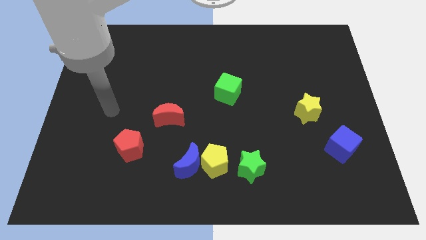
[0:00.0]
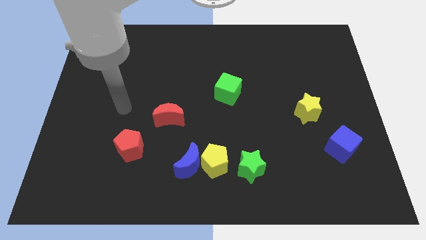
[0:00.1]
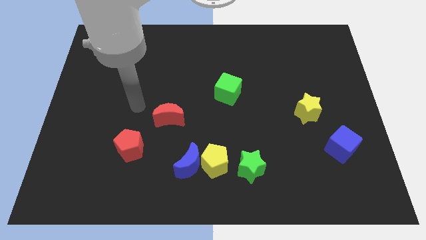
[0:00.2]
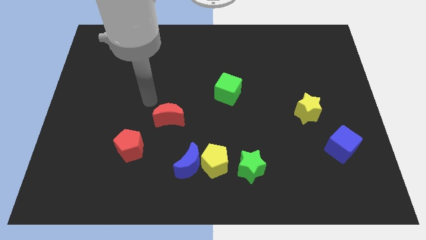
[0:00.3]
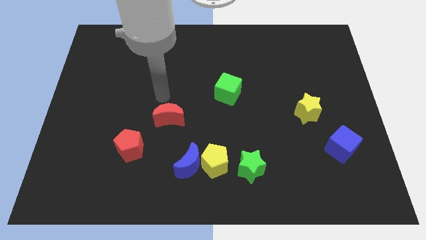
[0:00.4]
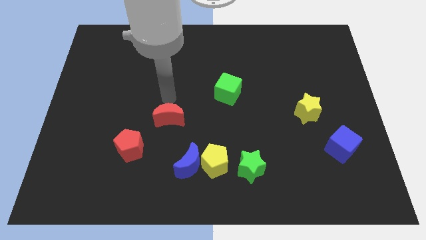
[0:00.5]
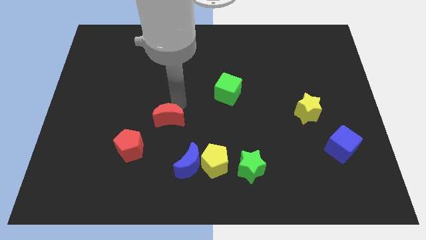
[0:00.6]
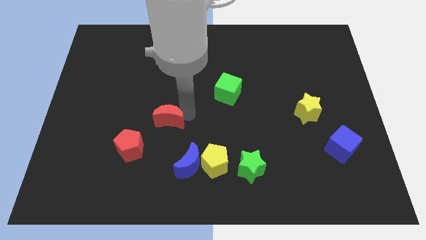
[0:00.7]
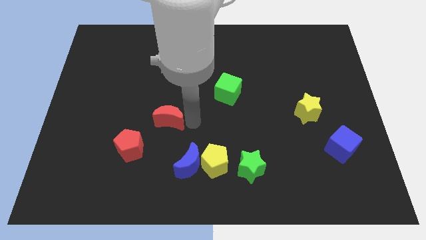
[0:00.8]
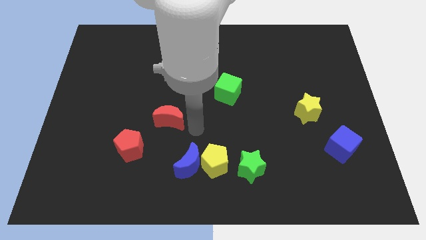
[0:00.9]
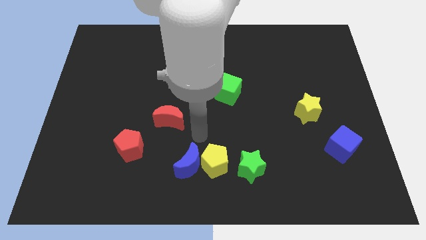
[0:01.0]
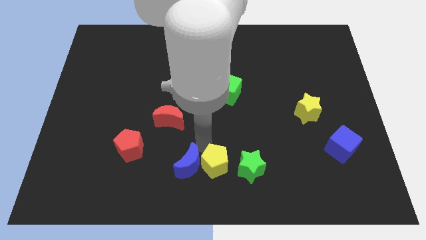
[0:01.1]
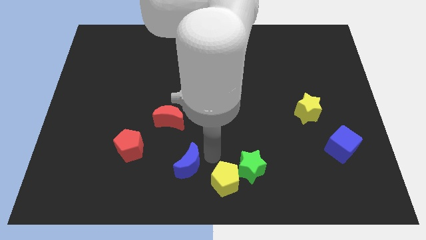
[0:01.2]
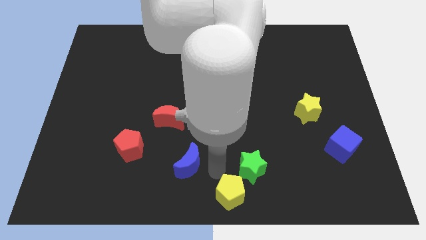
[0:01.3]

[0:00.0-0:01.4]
move the blue moon away from the yellow pentagon

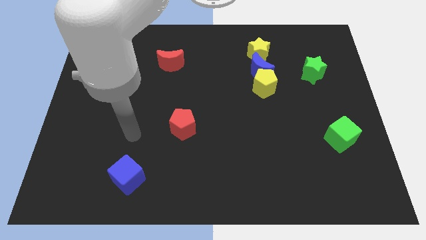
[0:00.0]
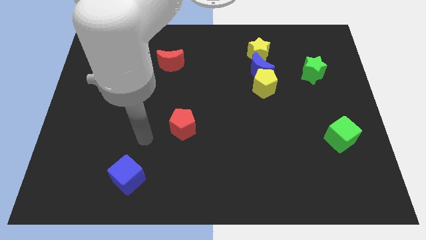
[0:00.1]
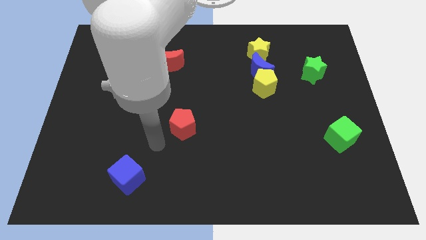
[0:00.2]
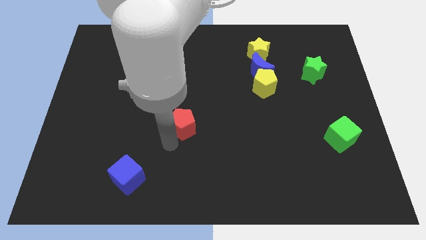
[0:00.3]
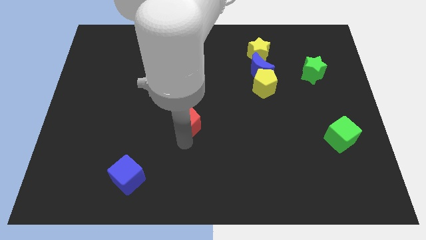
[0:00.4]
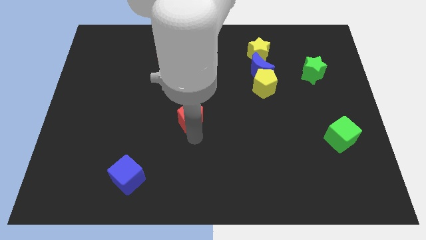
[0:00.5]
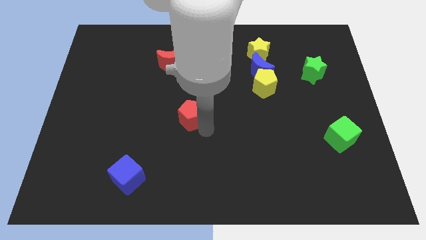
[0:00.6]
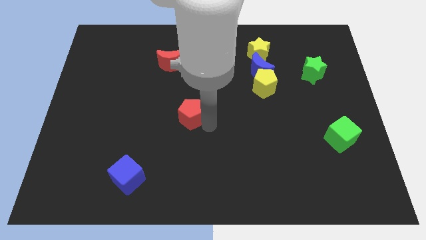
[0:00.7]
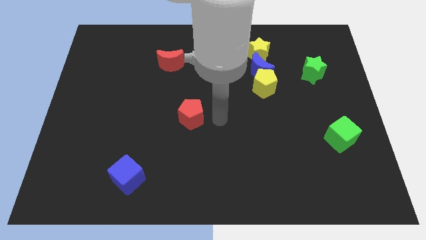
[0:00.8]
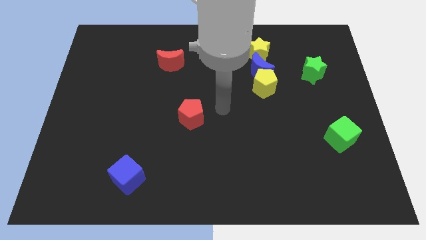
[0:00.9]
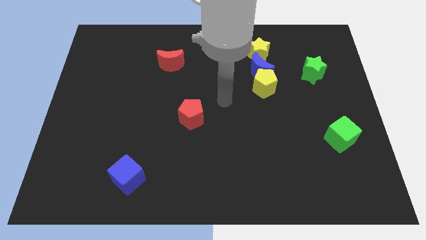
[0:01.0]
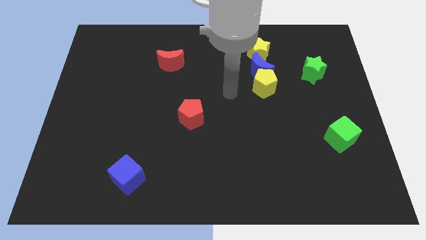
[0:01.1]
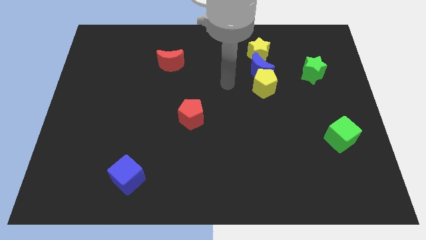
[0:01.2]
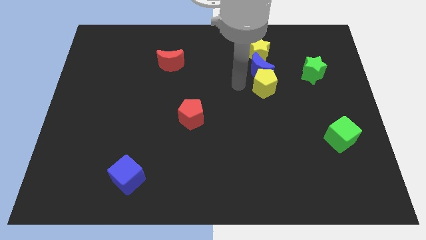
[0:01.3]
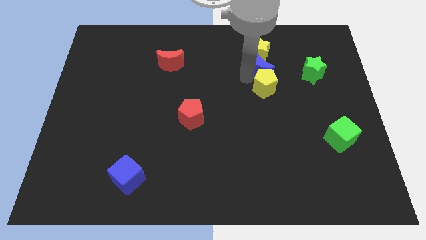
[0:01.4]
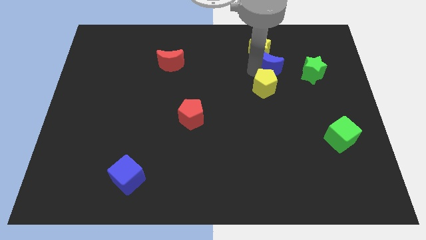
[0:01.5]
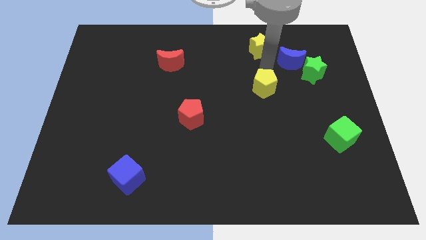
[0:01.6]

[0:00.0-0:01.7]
pull the yellow pentagon apart from the blue moon

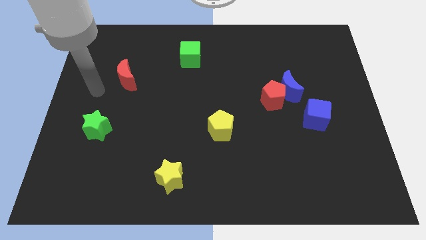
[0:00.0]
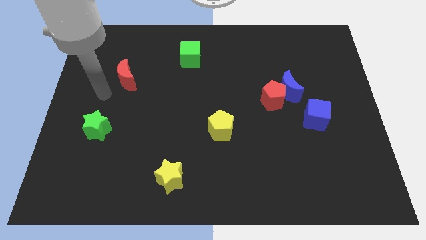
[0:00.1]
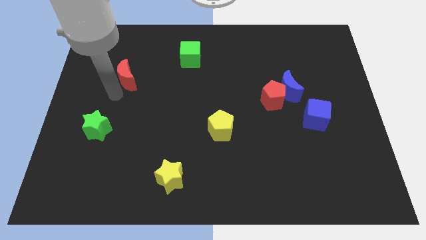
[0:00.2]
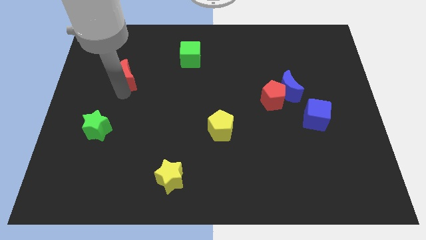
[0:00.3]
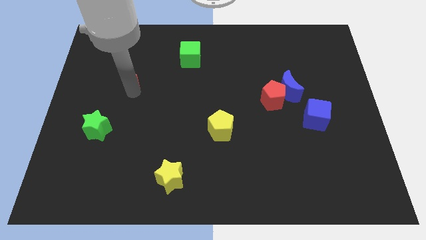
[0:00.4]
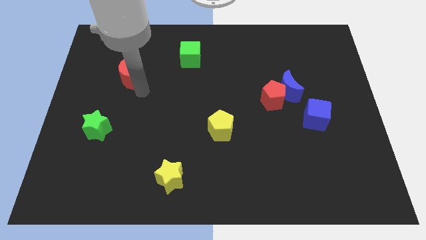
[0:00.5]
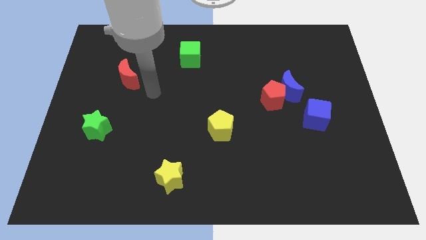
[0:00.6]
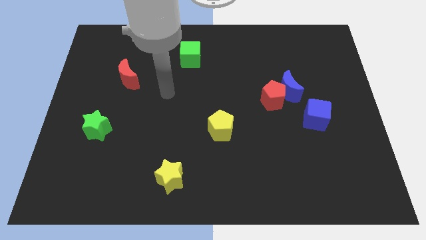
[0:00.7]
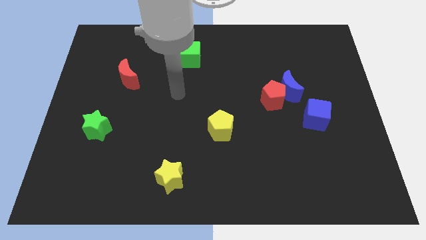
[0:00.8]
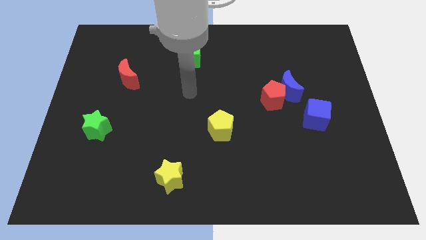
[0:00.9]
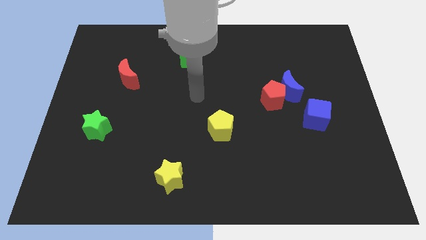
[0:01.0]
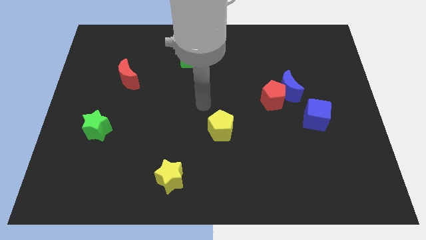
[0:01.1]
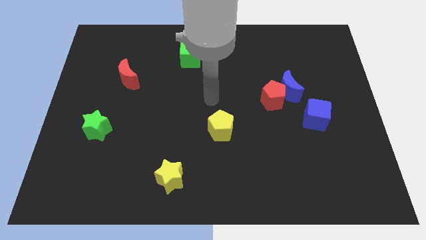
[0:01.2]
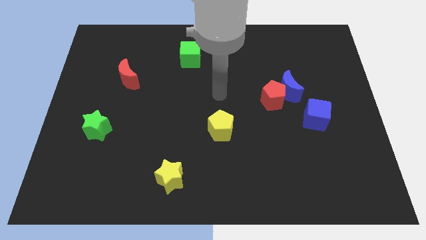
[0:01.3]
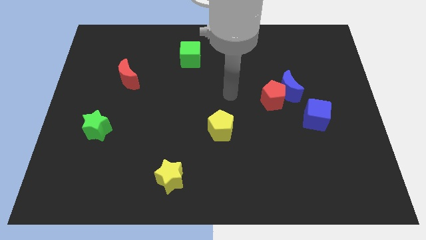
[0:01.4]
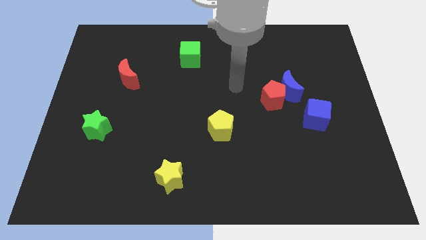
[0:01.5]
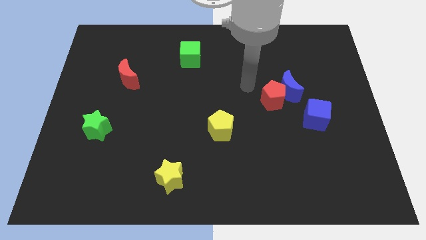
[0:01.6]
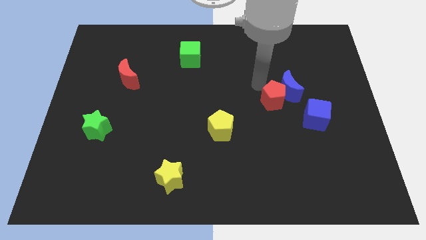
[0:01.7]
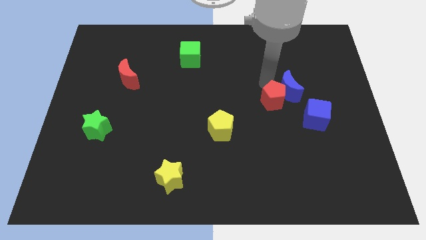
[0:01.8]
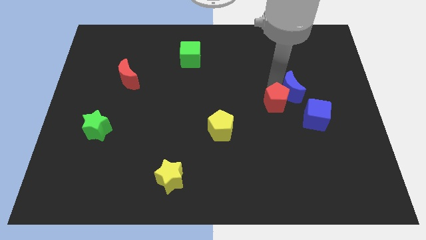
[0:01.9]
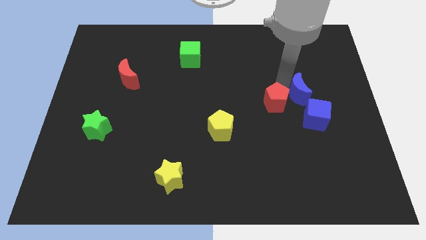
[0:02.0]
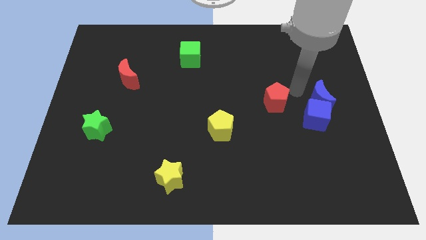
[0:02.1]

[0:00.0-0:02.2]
separate the red pentagon from the blue moon

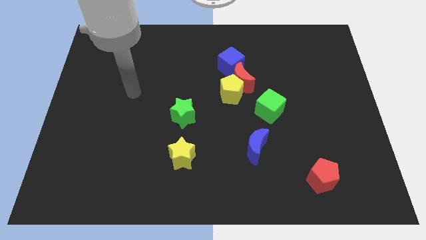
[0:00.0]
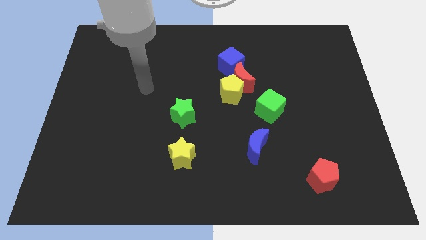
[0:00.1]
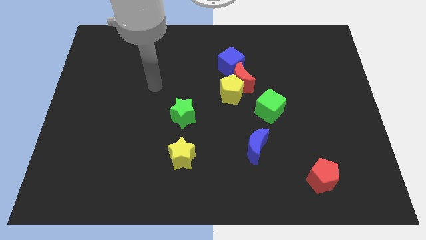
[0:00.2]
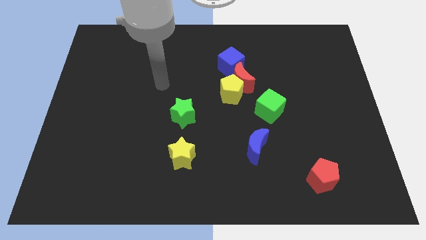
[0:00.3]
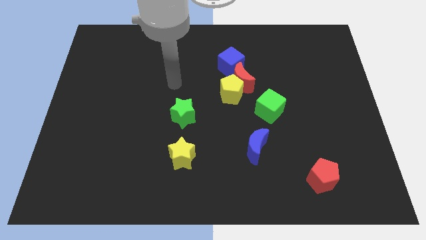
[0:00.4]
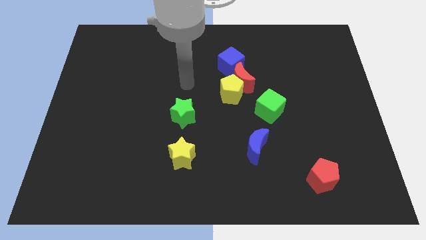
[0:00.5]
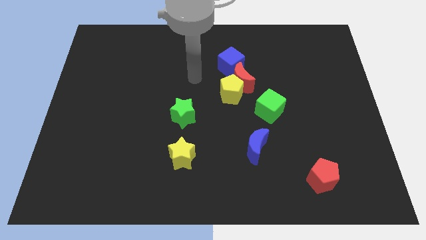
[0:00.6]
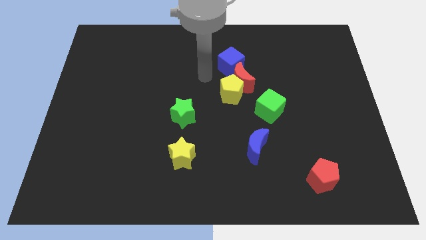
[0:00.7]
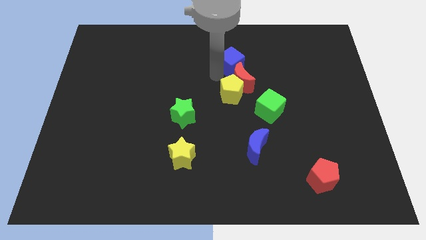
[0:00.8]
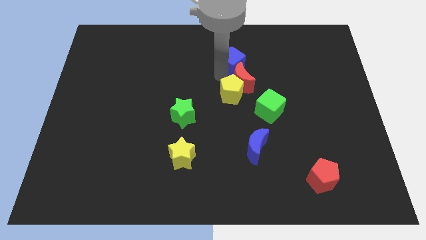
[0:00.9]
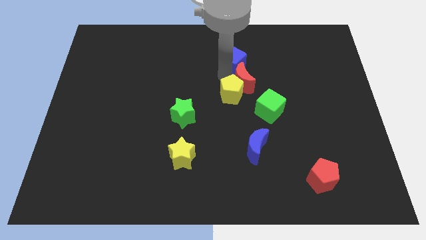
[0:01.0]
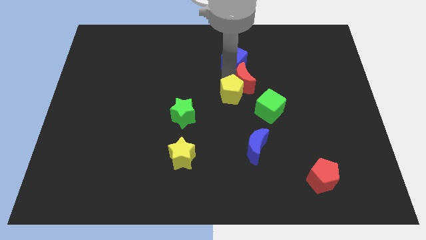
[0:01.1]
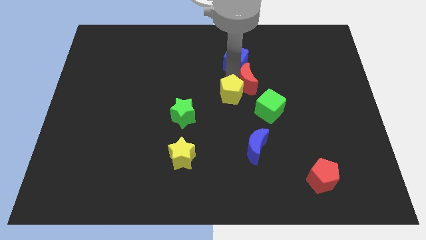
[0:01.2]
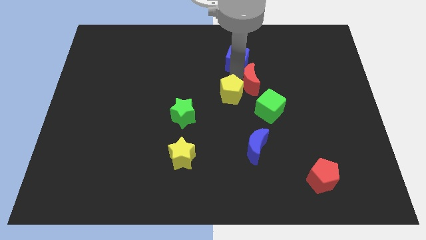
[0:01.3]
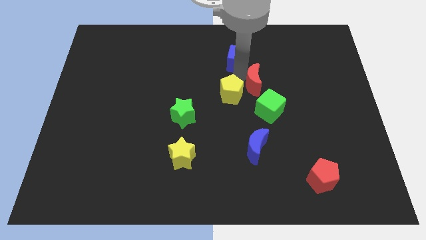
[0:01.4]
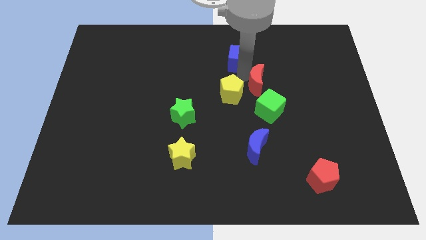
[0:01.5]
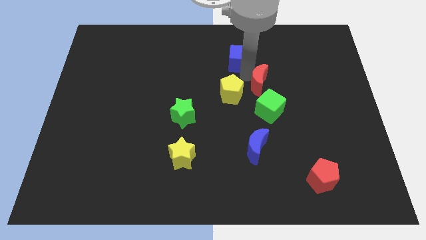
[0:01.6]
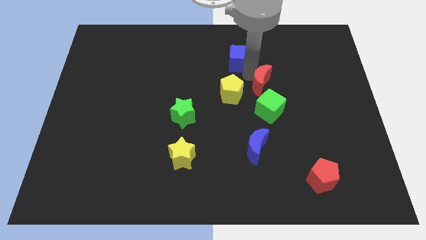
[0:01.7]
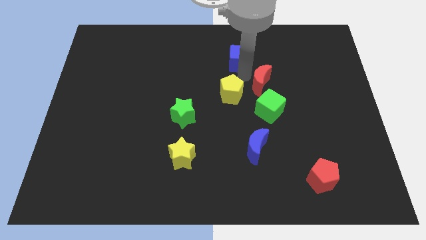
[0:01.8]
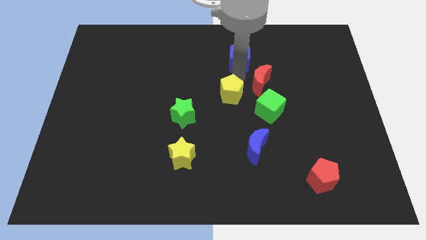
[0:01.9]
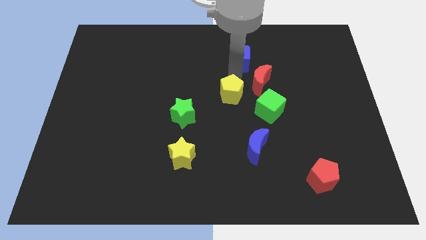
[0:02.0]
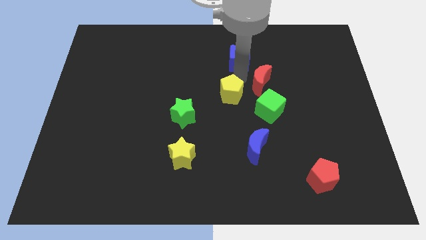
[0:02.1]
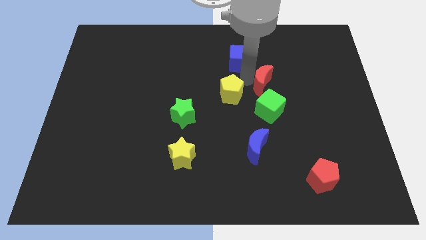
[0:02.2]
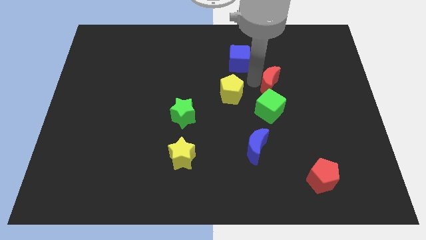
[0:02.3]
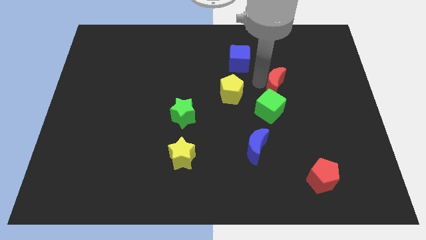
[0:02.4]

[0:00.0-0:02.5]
separate the red moon from the yellow pentagon and blue cube

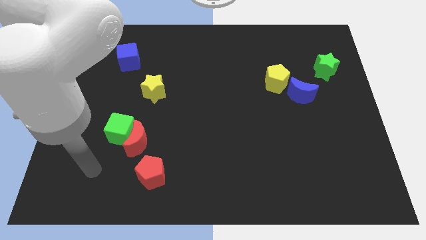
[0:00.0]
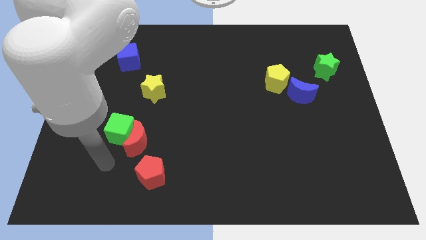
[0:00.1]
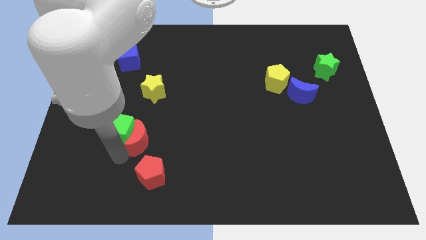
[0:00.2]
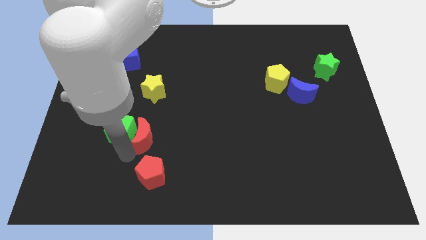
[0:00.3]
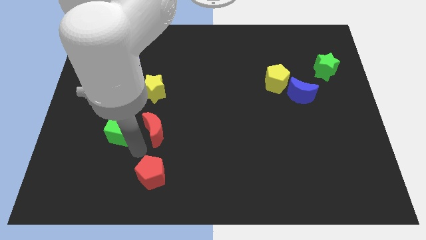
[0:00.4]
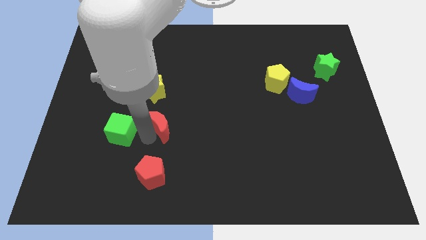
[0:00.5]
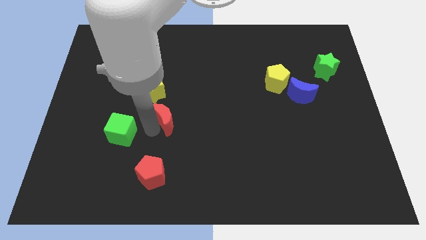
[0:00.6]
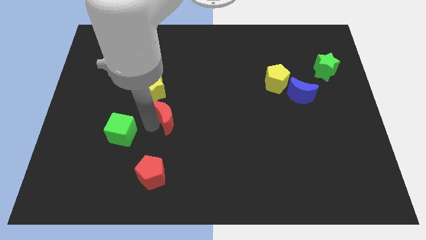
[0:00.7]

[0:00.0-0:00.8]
move the green cube away from the red moon

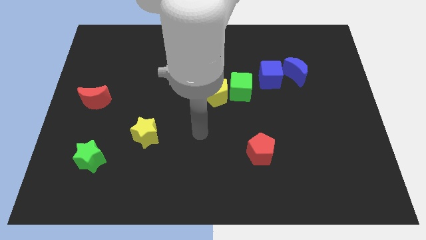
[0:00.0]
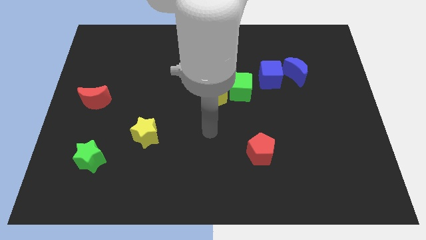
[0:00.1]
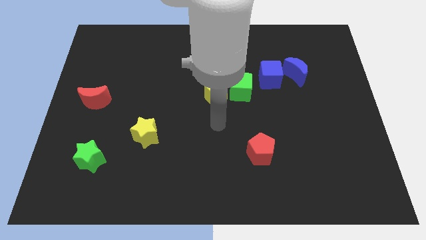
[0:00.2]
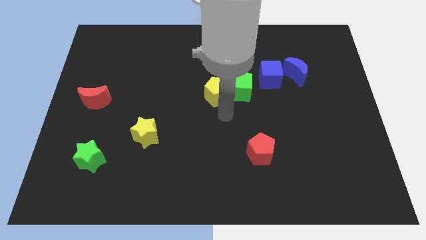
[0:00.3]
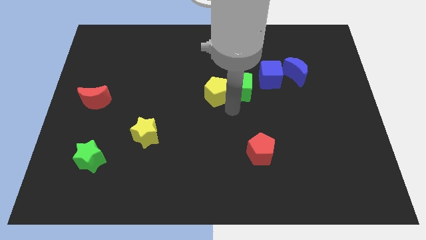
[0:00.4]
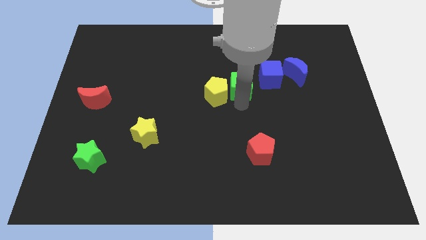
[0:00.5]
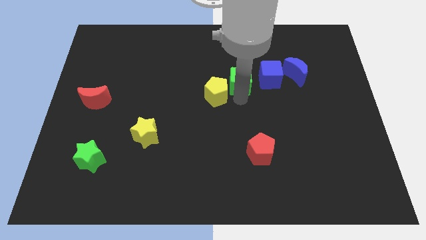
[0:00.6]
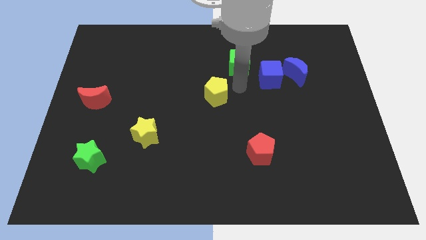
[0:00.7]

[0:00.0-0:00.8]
move the yellow pentagon away from the green cube
